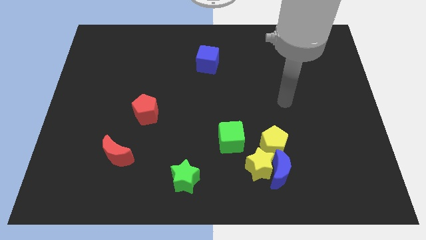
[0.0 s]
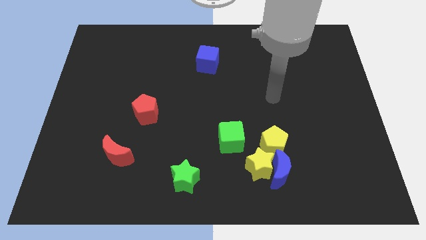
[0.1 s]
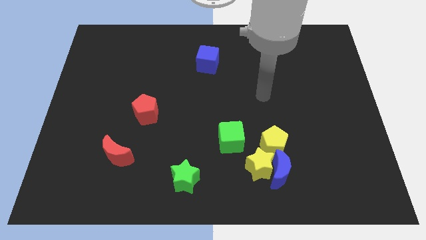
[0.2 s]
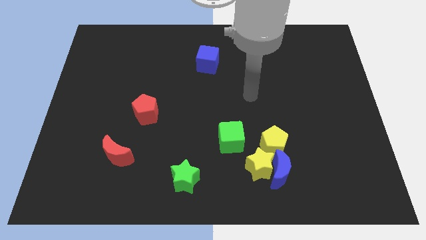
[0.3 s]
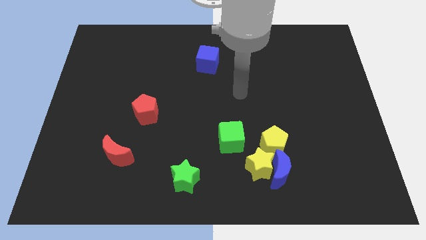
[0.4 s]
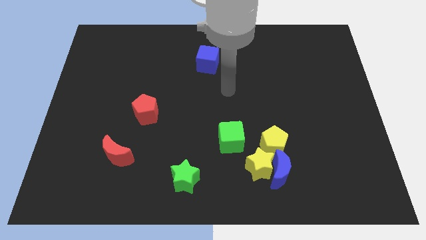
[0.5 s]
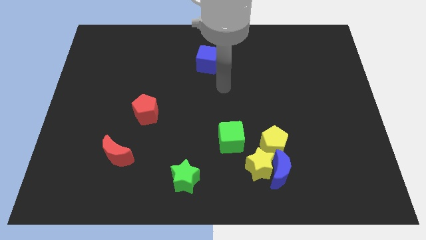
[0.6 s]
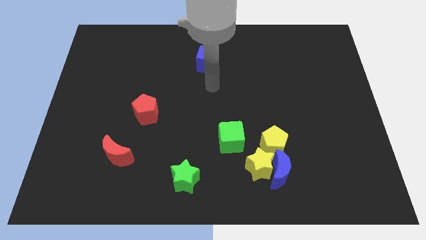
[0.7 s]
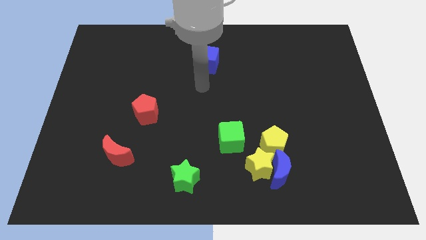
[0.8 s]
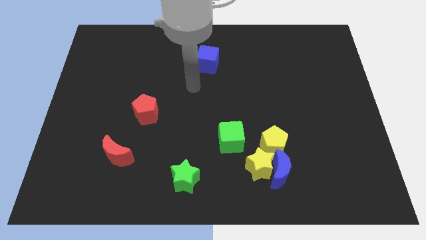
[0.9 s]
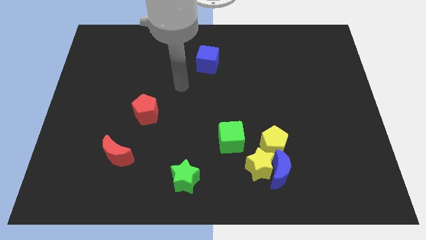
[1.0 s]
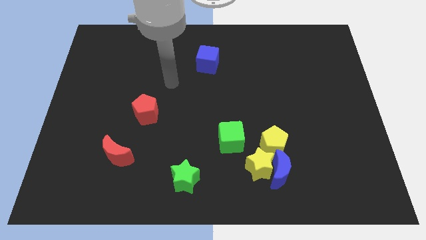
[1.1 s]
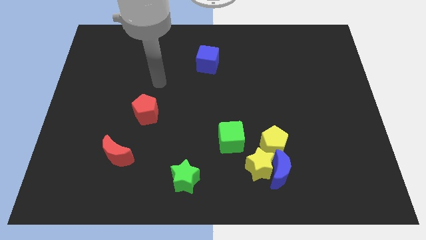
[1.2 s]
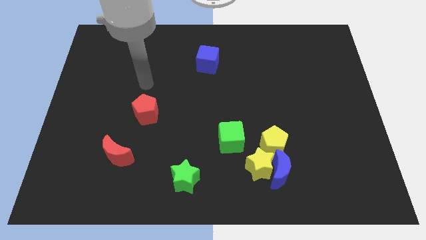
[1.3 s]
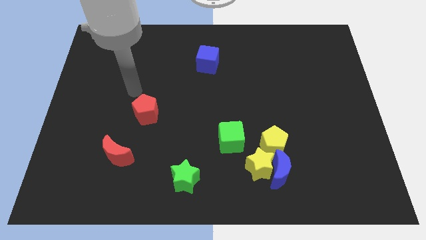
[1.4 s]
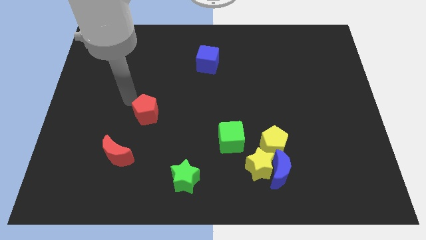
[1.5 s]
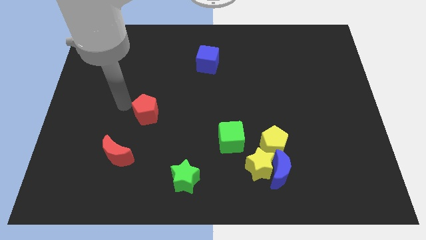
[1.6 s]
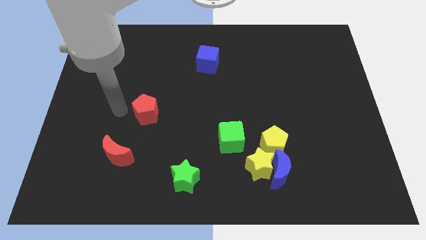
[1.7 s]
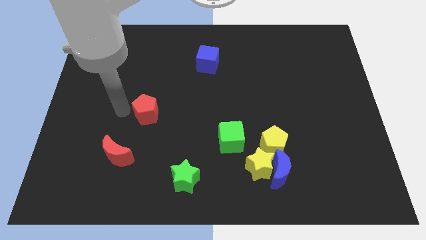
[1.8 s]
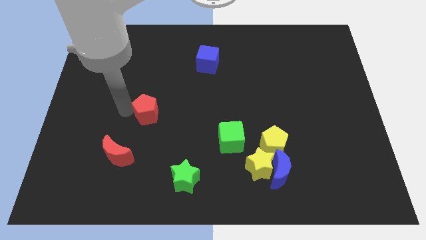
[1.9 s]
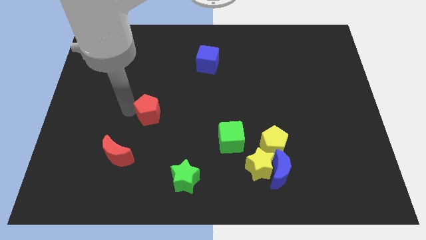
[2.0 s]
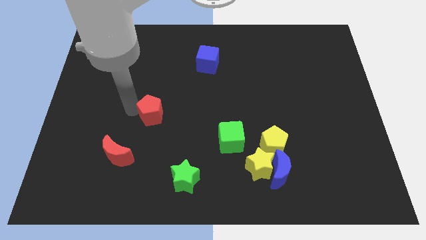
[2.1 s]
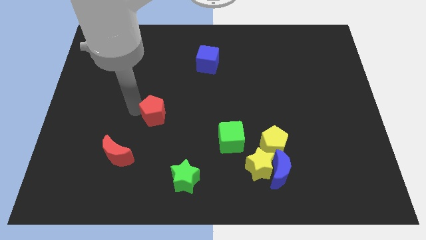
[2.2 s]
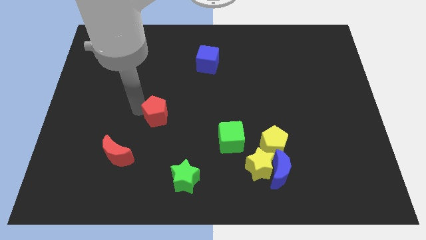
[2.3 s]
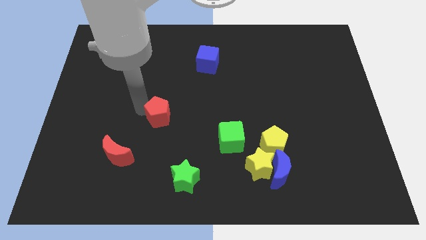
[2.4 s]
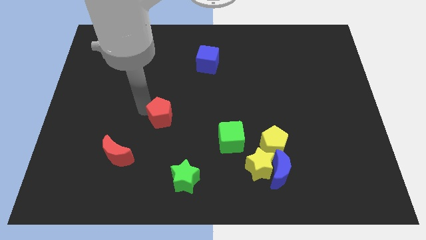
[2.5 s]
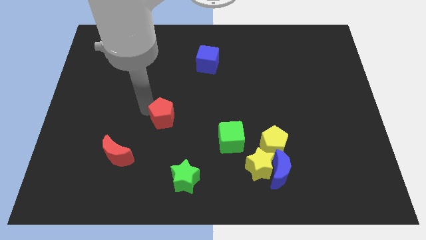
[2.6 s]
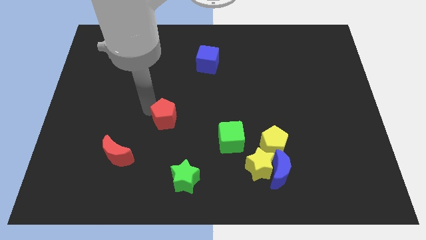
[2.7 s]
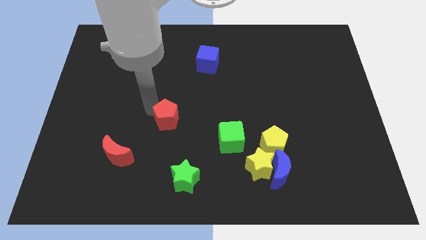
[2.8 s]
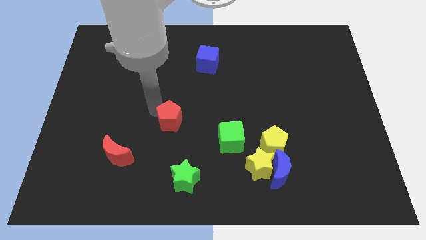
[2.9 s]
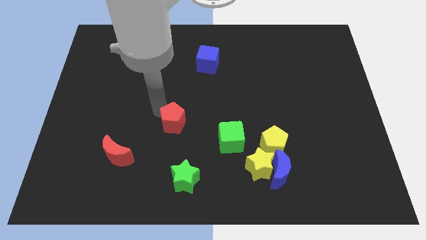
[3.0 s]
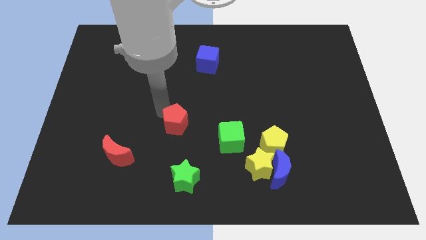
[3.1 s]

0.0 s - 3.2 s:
slightly push the red pentagon right

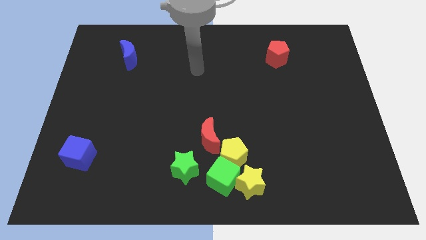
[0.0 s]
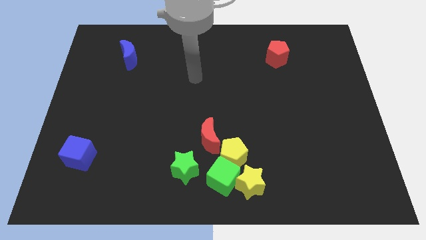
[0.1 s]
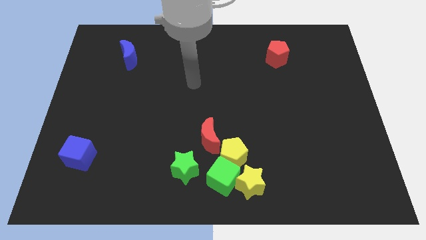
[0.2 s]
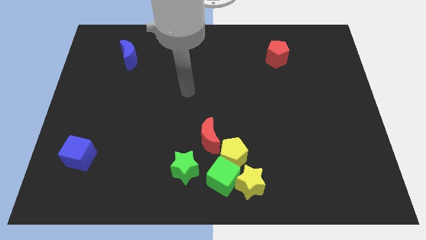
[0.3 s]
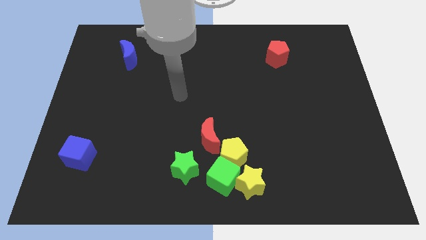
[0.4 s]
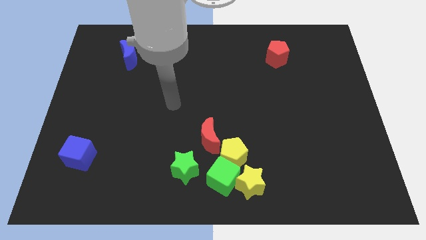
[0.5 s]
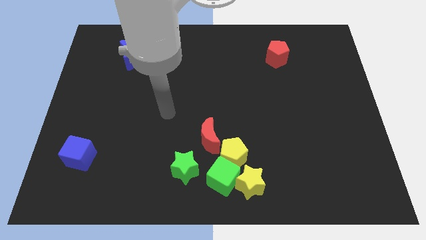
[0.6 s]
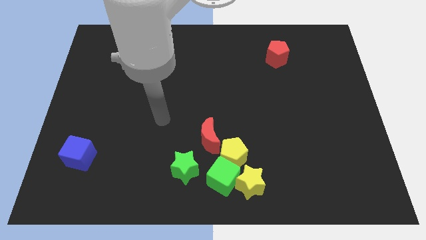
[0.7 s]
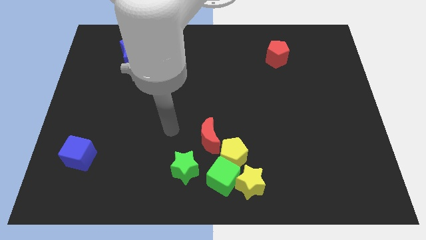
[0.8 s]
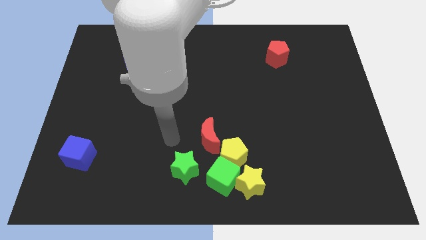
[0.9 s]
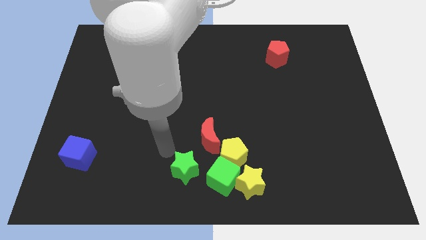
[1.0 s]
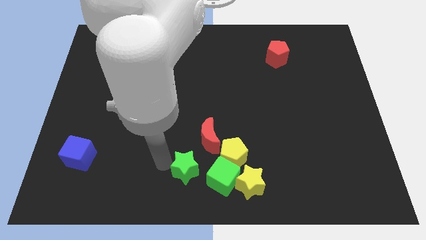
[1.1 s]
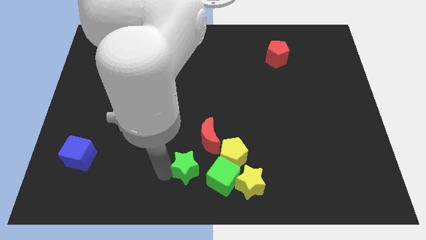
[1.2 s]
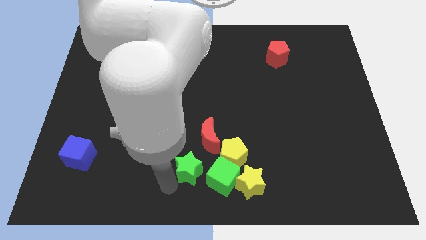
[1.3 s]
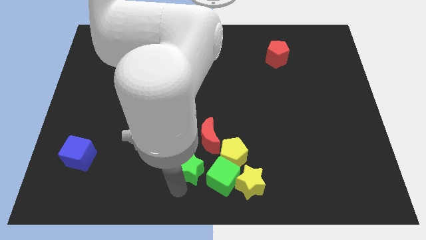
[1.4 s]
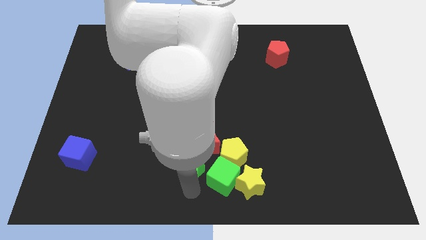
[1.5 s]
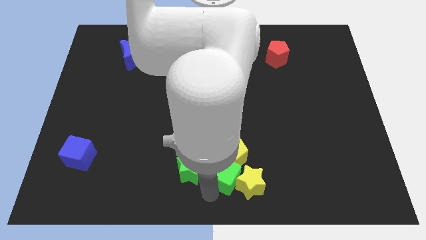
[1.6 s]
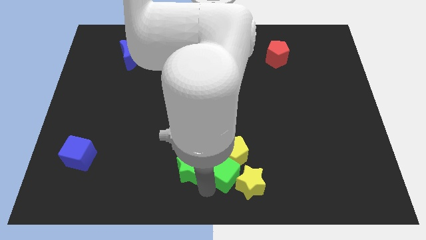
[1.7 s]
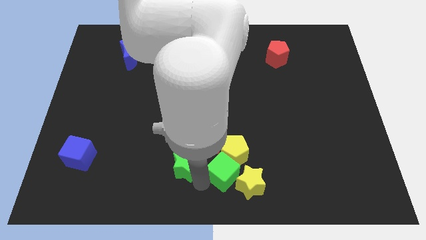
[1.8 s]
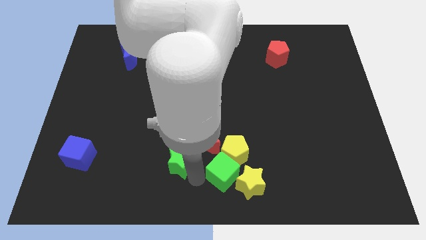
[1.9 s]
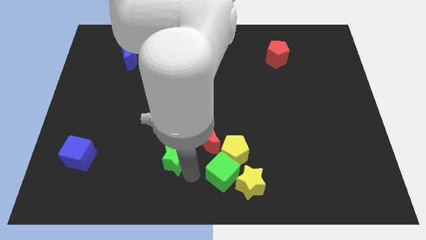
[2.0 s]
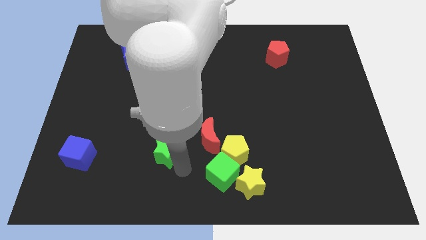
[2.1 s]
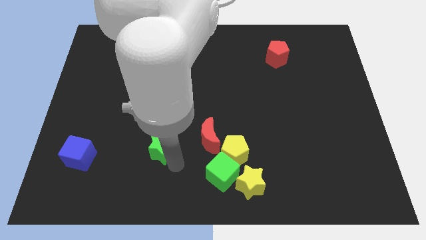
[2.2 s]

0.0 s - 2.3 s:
push the green star upwards and to the left diagonally slightly

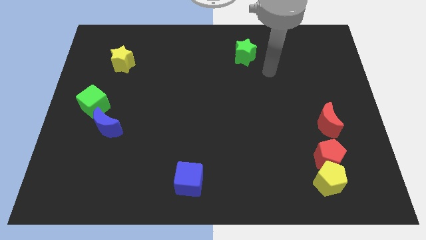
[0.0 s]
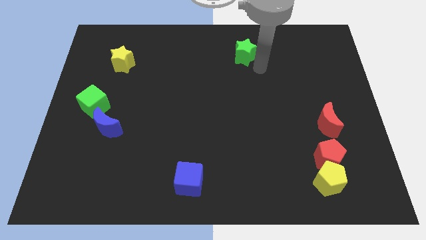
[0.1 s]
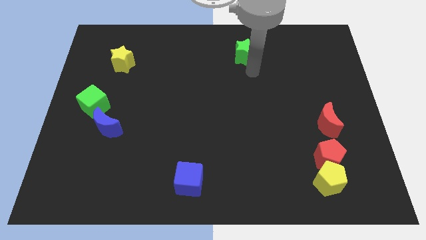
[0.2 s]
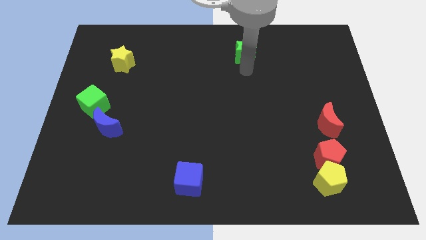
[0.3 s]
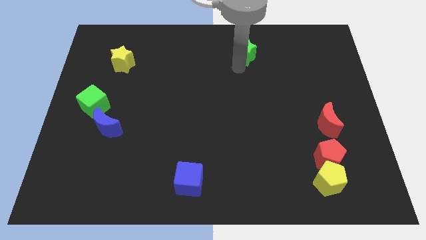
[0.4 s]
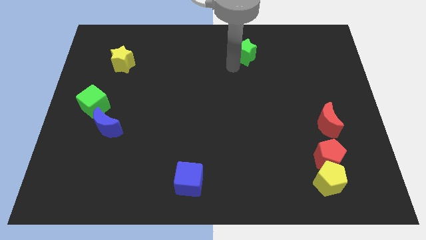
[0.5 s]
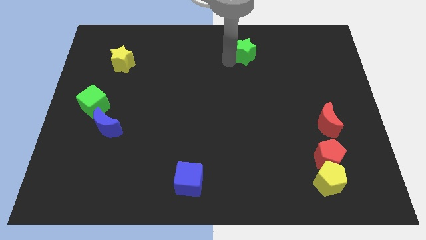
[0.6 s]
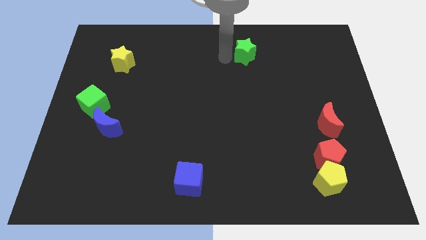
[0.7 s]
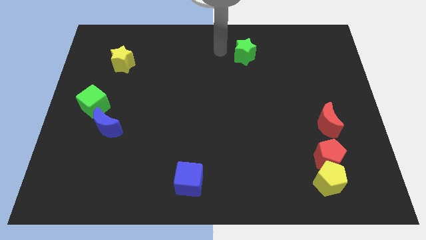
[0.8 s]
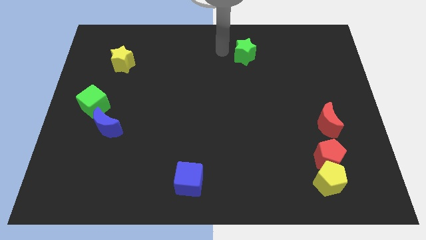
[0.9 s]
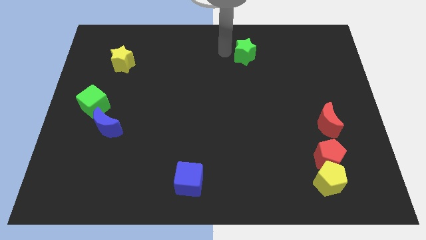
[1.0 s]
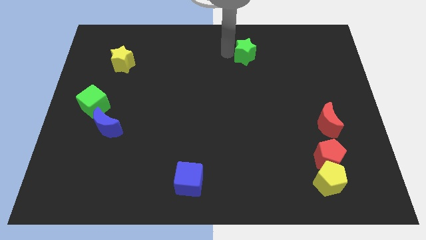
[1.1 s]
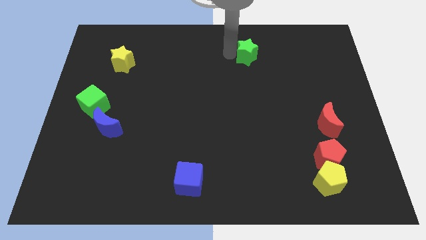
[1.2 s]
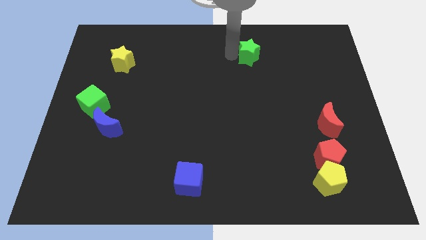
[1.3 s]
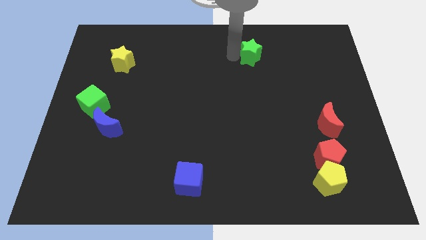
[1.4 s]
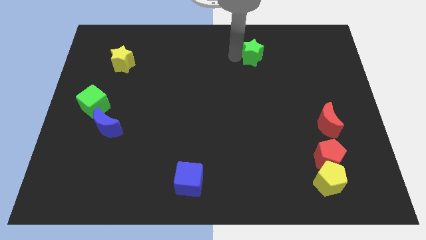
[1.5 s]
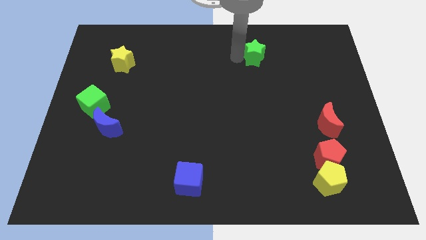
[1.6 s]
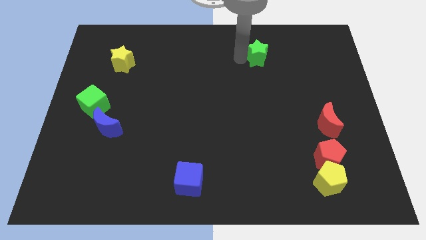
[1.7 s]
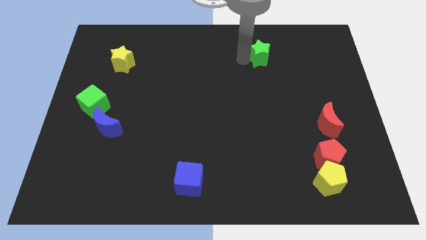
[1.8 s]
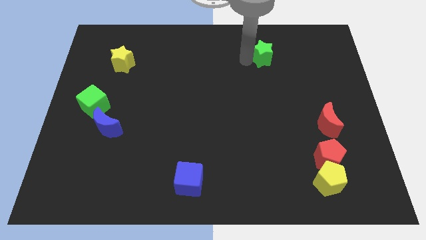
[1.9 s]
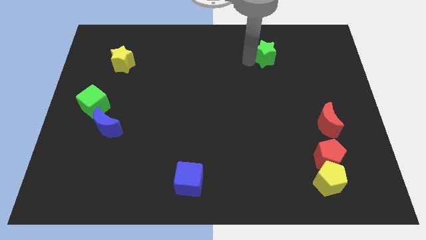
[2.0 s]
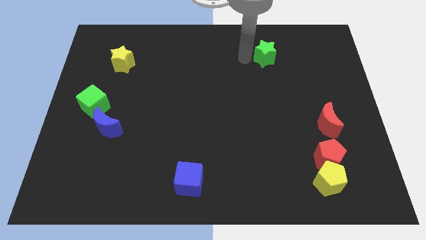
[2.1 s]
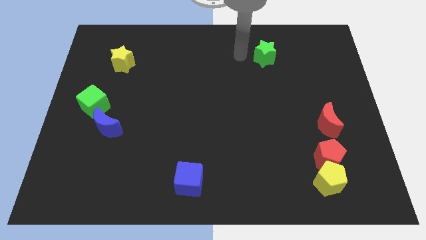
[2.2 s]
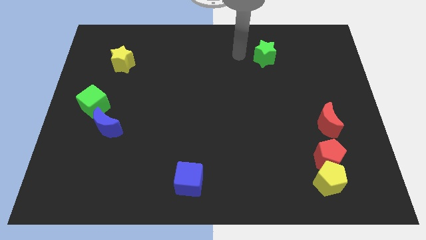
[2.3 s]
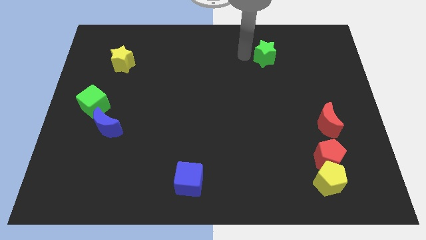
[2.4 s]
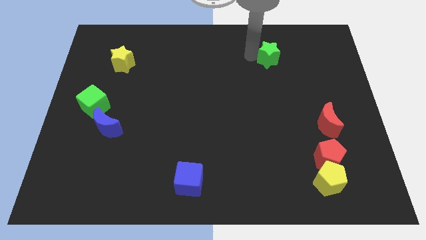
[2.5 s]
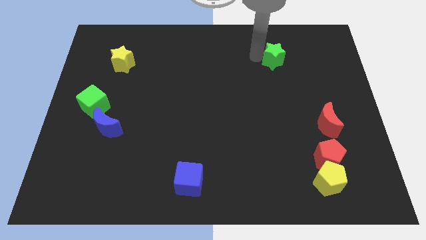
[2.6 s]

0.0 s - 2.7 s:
slightly move the green star to the right
